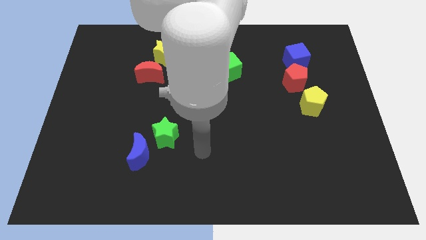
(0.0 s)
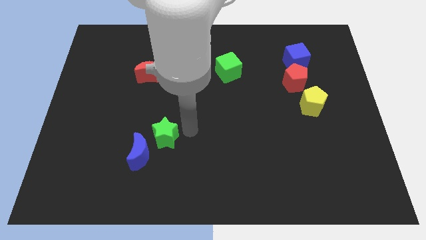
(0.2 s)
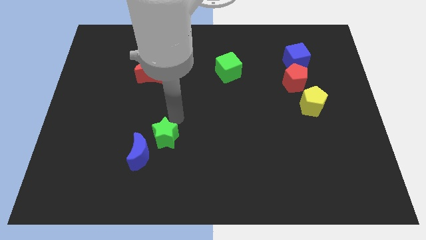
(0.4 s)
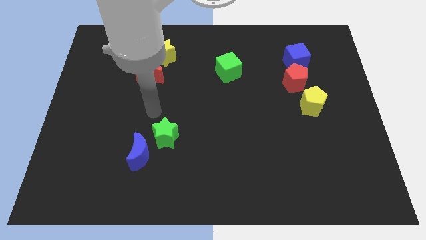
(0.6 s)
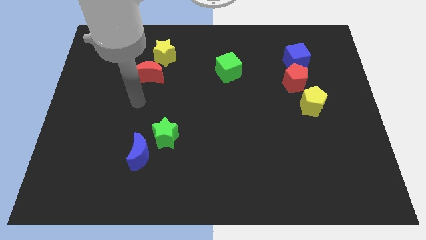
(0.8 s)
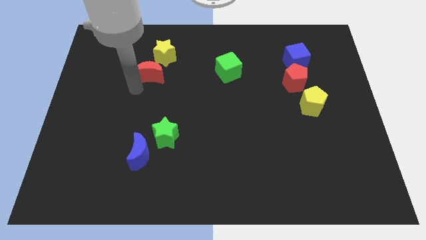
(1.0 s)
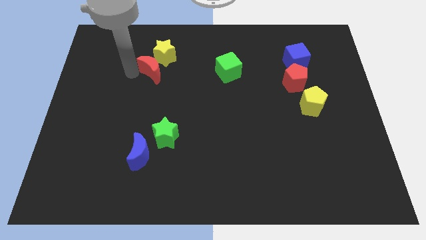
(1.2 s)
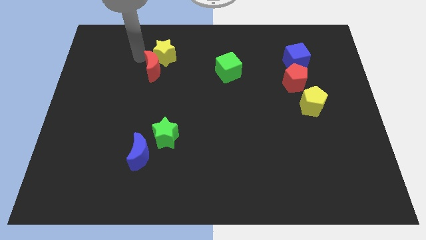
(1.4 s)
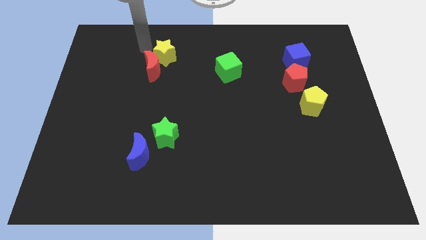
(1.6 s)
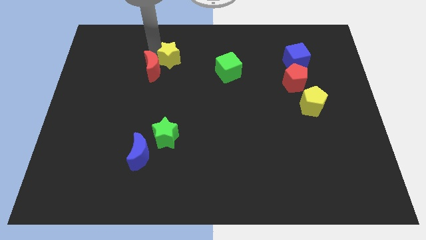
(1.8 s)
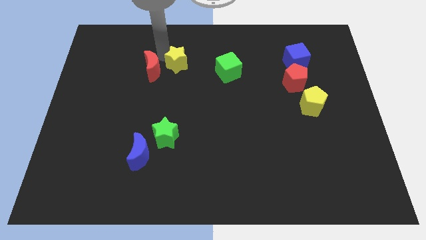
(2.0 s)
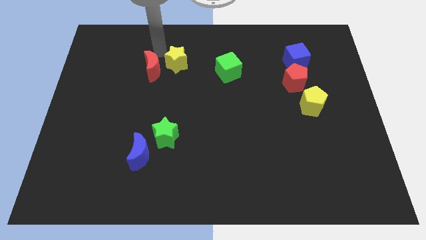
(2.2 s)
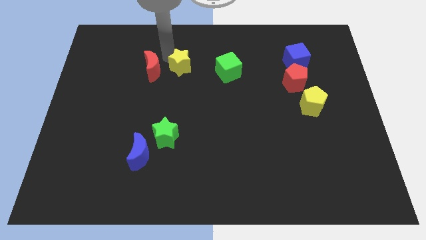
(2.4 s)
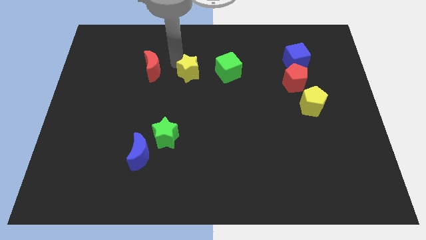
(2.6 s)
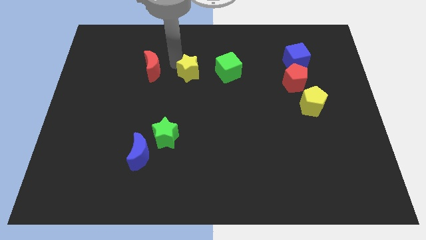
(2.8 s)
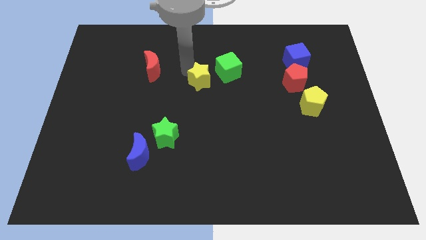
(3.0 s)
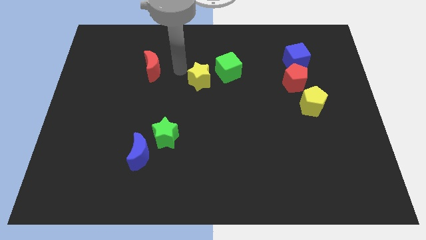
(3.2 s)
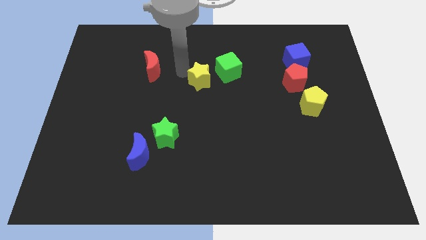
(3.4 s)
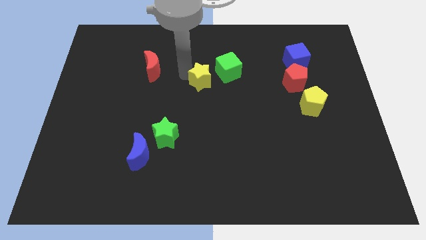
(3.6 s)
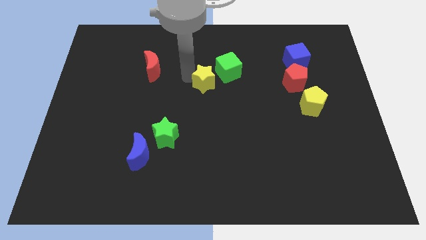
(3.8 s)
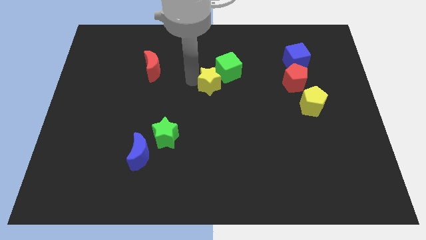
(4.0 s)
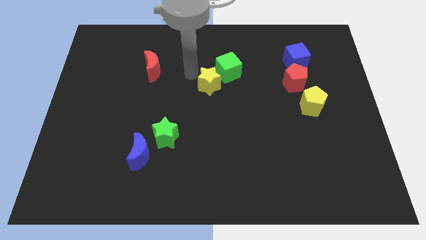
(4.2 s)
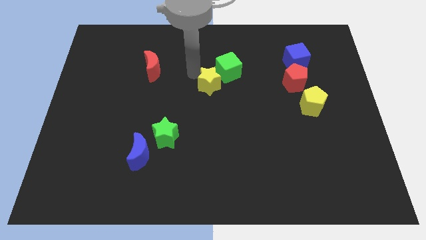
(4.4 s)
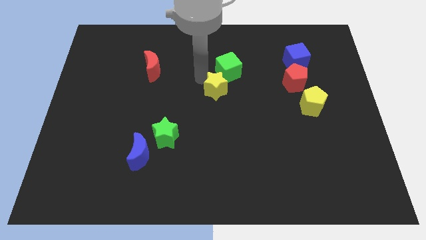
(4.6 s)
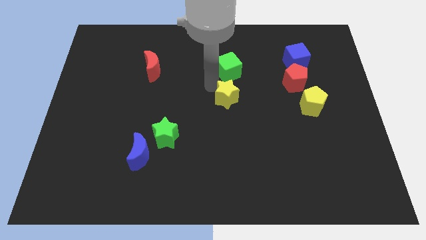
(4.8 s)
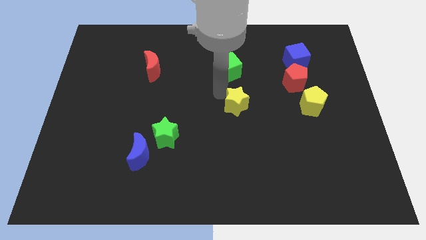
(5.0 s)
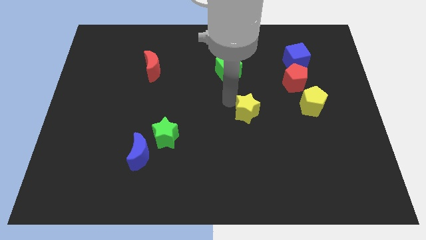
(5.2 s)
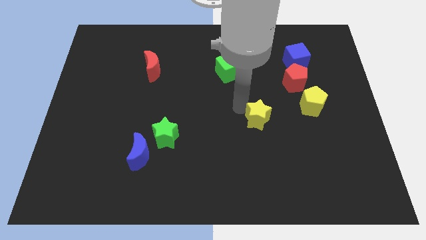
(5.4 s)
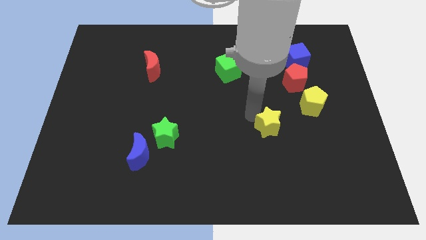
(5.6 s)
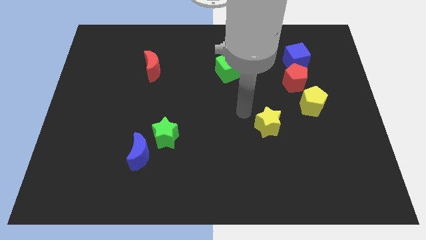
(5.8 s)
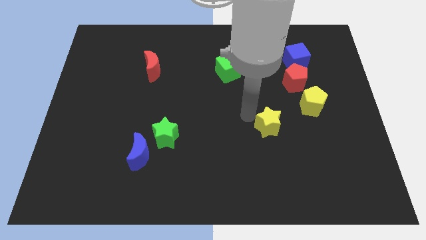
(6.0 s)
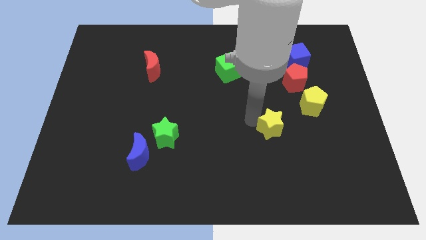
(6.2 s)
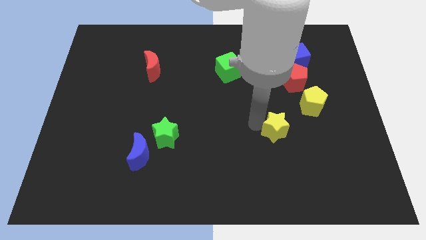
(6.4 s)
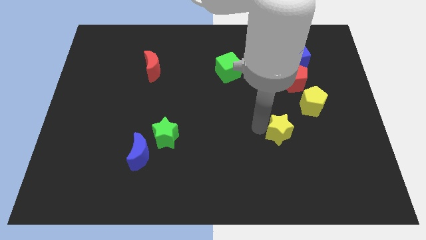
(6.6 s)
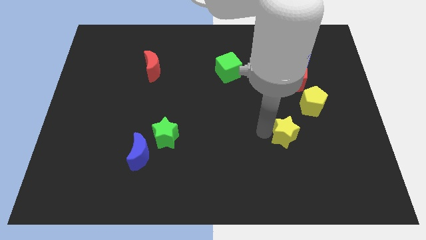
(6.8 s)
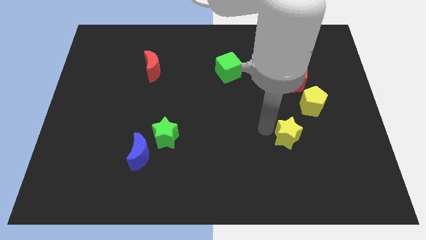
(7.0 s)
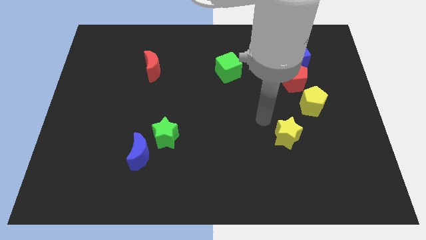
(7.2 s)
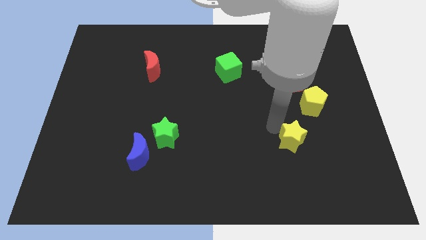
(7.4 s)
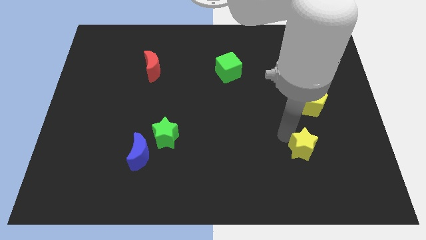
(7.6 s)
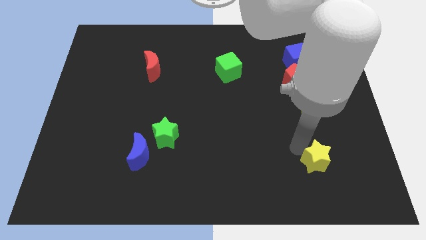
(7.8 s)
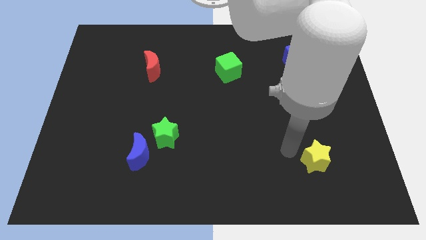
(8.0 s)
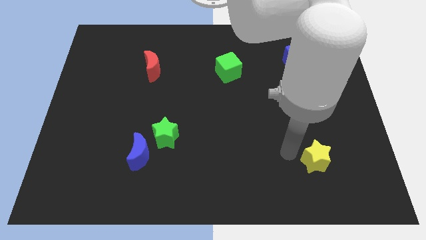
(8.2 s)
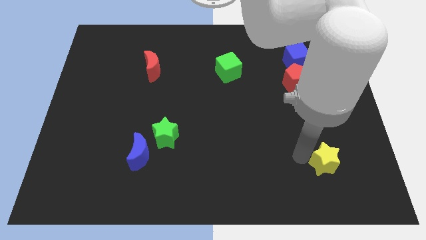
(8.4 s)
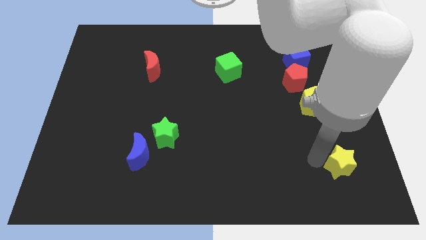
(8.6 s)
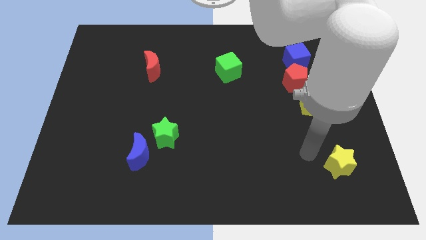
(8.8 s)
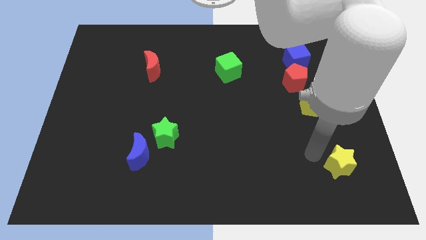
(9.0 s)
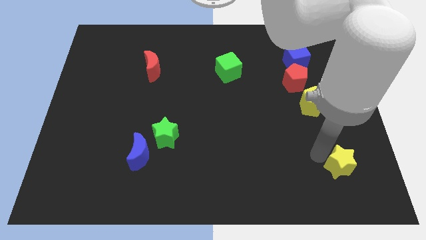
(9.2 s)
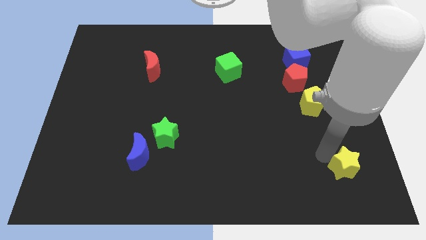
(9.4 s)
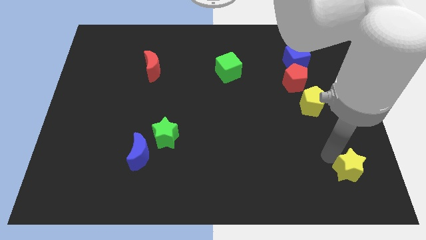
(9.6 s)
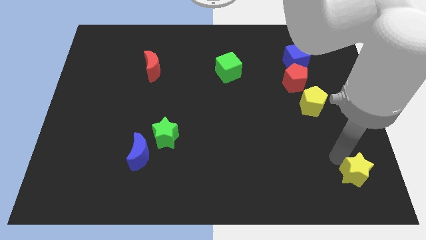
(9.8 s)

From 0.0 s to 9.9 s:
slide the yellow star to the lower right corner

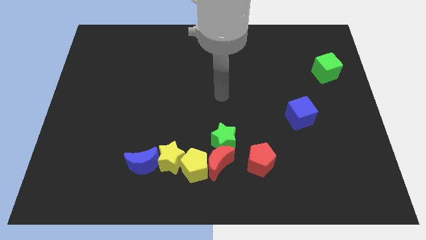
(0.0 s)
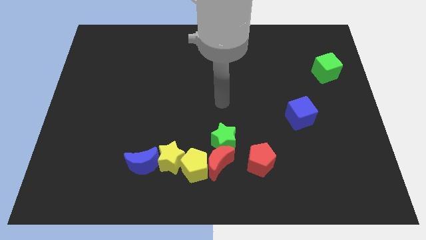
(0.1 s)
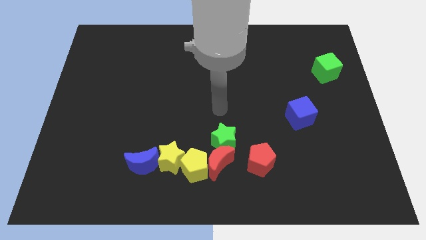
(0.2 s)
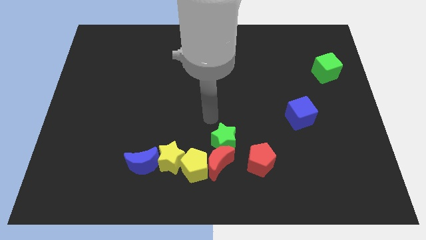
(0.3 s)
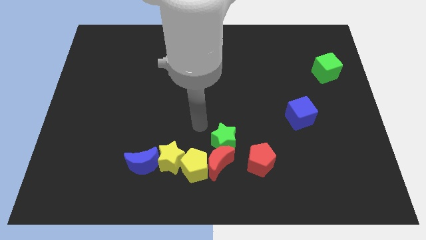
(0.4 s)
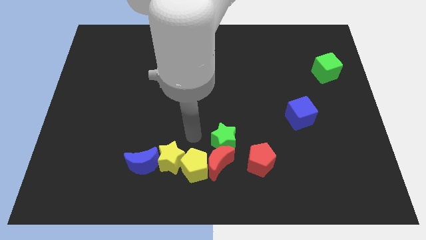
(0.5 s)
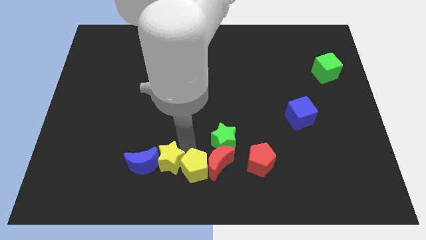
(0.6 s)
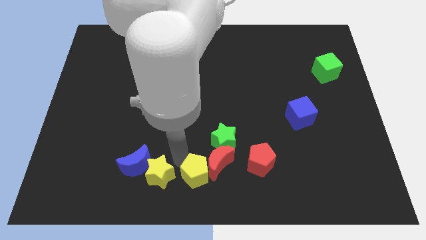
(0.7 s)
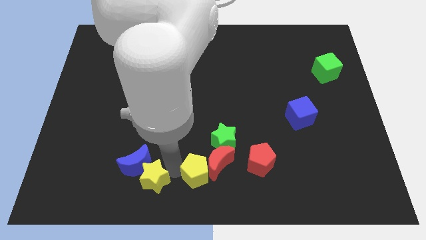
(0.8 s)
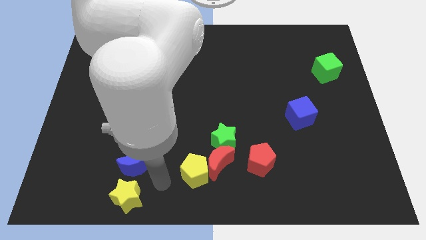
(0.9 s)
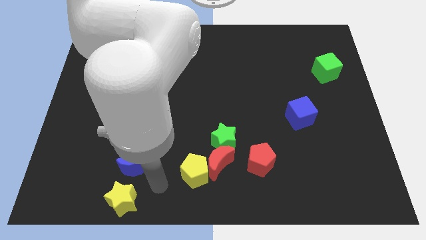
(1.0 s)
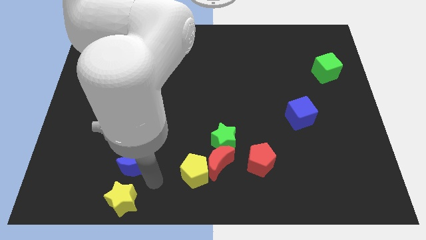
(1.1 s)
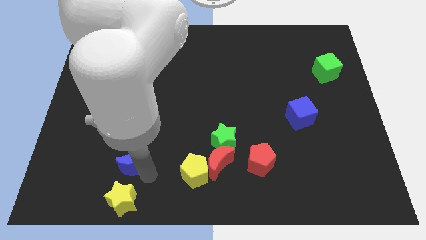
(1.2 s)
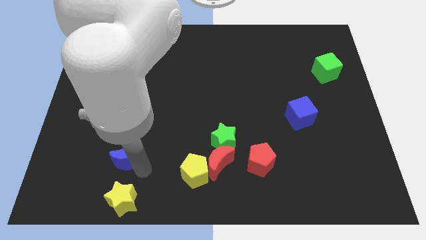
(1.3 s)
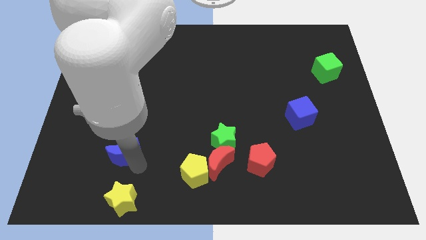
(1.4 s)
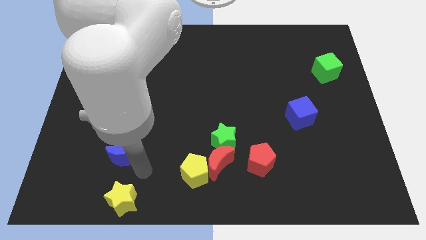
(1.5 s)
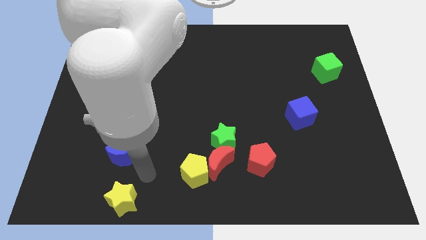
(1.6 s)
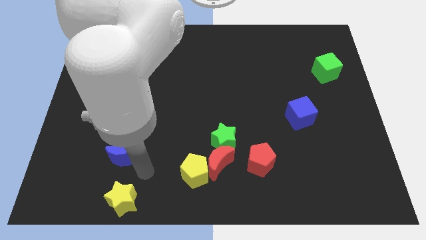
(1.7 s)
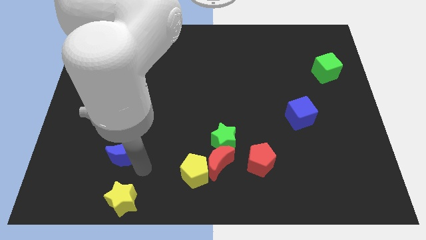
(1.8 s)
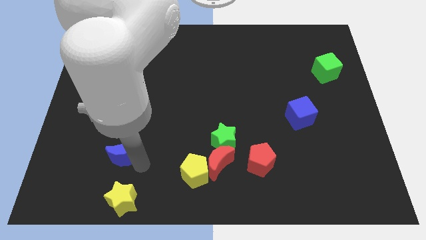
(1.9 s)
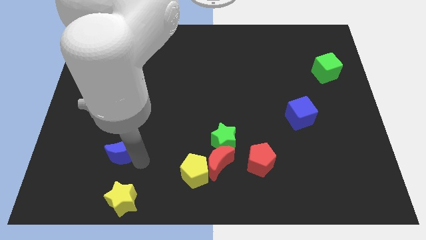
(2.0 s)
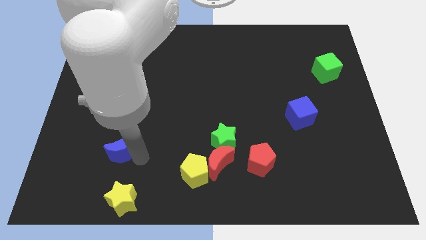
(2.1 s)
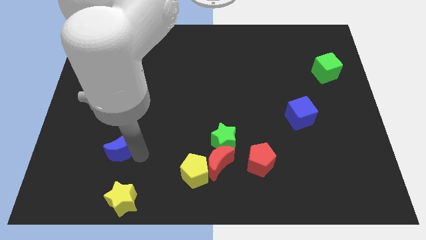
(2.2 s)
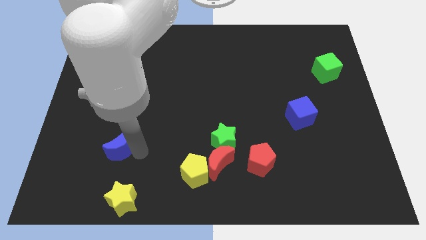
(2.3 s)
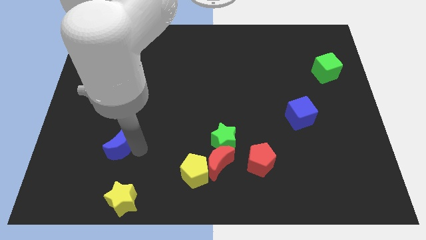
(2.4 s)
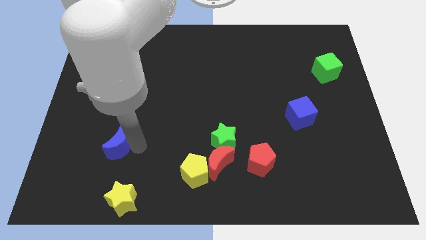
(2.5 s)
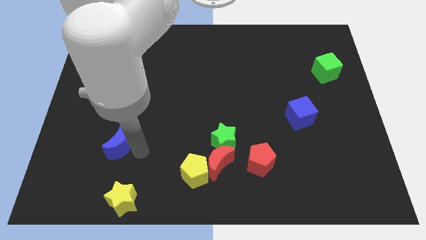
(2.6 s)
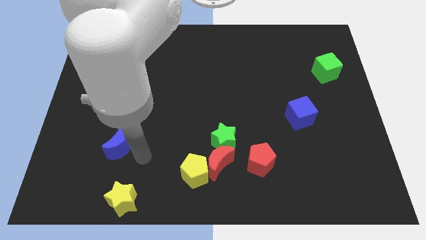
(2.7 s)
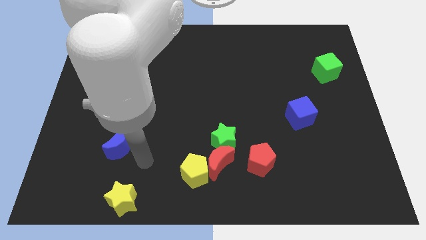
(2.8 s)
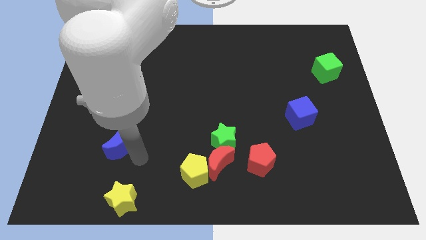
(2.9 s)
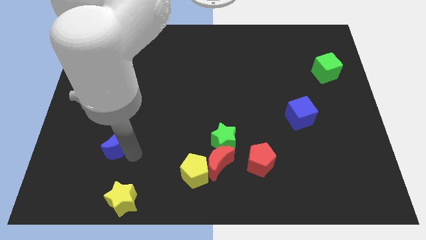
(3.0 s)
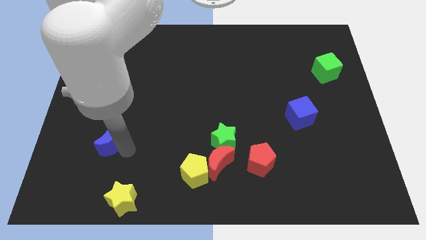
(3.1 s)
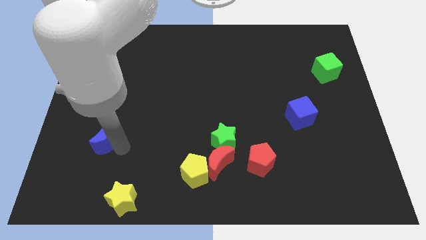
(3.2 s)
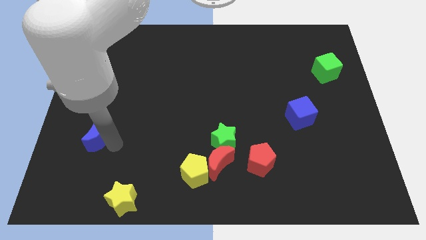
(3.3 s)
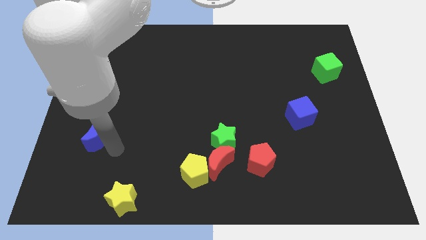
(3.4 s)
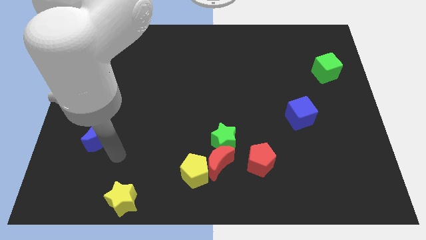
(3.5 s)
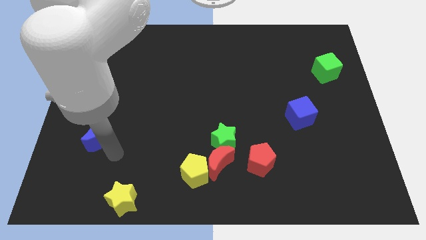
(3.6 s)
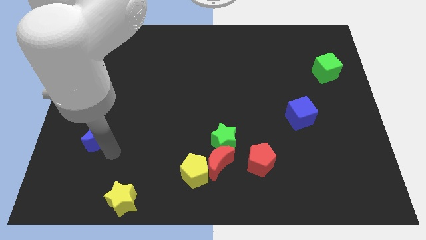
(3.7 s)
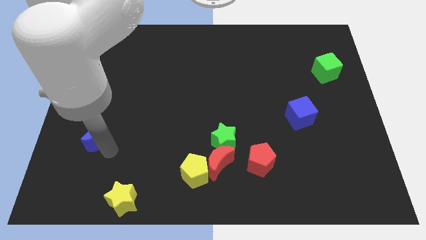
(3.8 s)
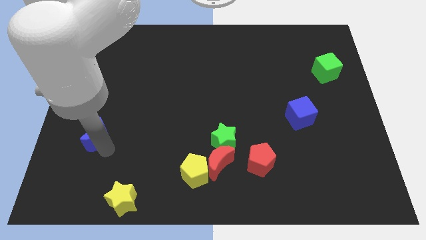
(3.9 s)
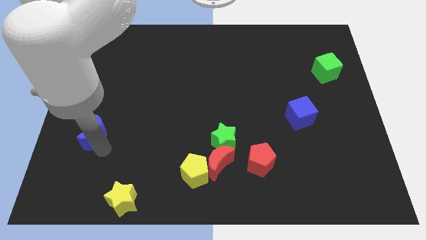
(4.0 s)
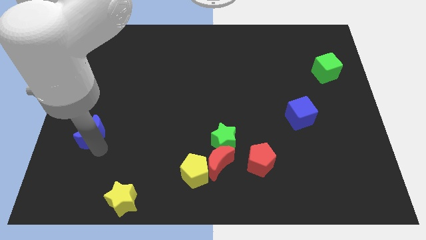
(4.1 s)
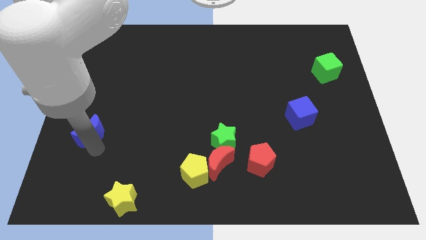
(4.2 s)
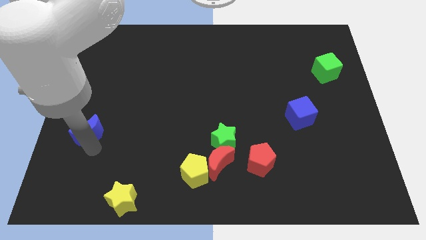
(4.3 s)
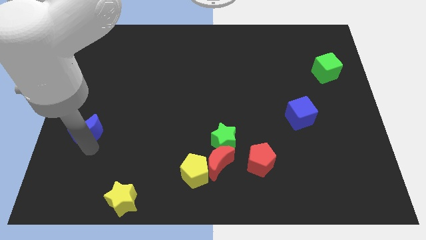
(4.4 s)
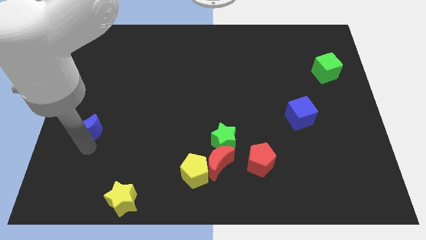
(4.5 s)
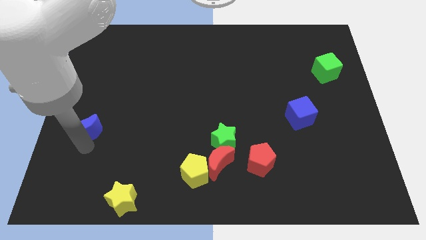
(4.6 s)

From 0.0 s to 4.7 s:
move the blue moon to the left side of the board
